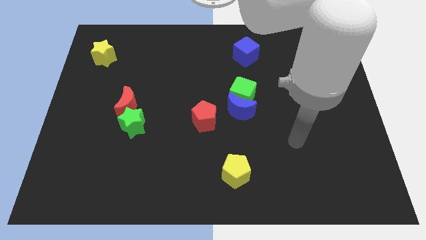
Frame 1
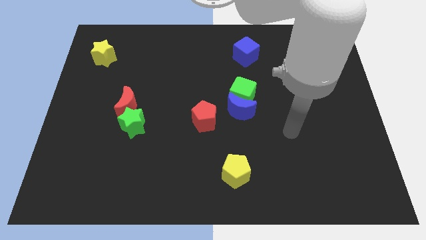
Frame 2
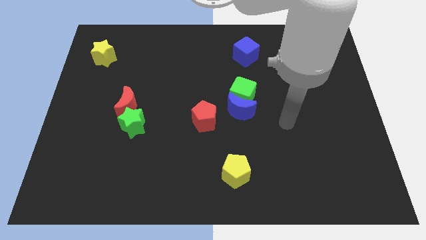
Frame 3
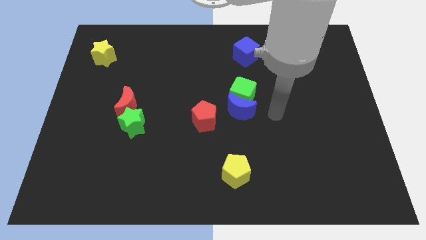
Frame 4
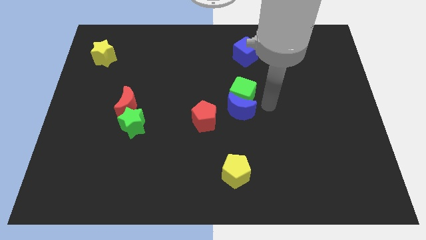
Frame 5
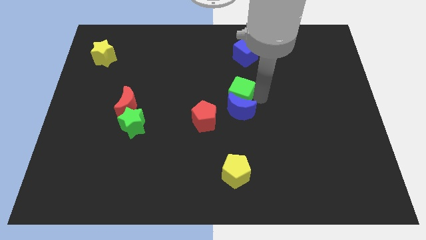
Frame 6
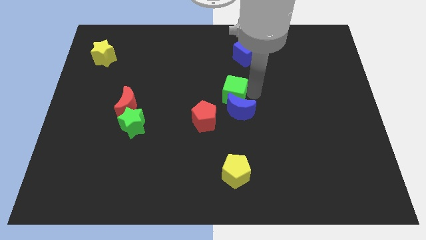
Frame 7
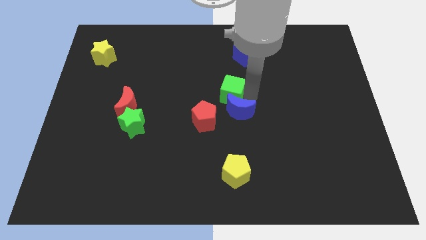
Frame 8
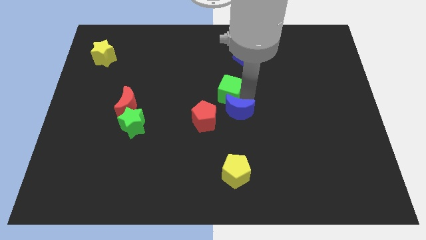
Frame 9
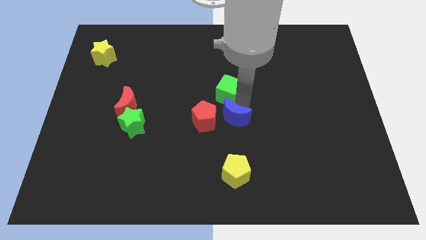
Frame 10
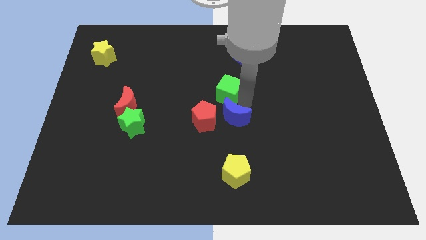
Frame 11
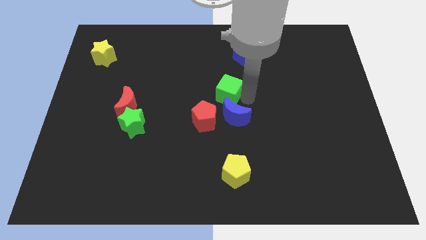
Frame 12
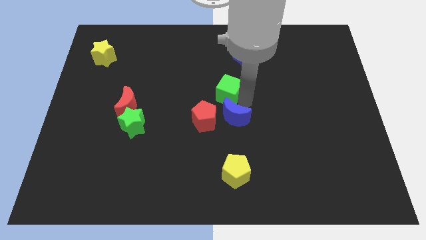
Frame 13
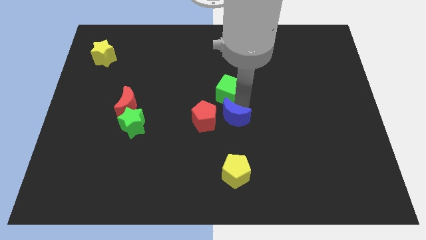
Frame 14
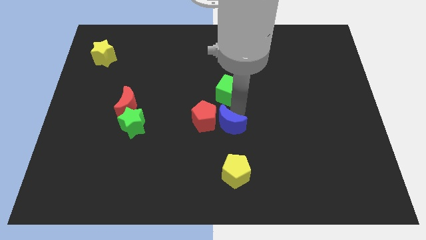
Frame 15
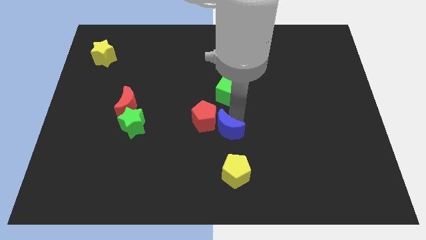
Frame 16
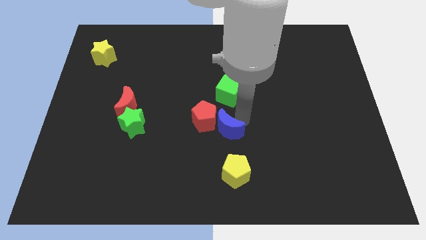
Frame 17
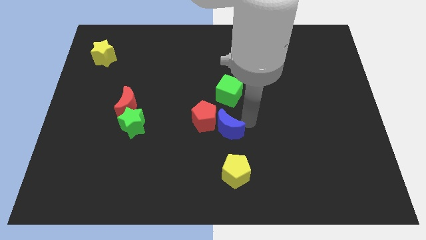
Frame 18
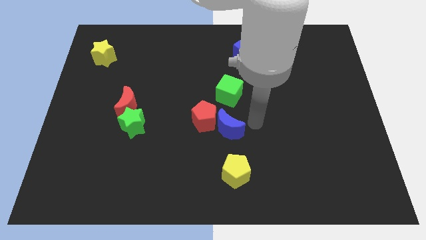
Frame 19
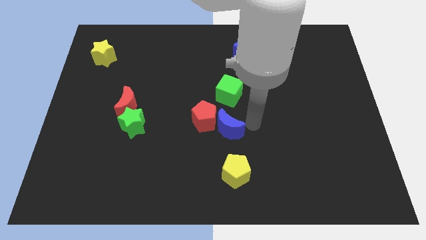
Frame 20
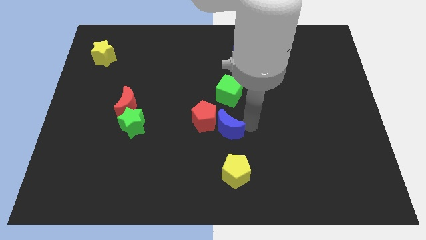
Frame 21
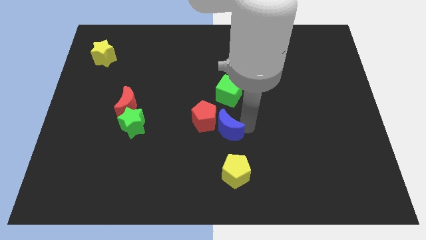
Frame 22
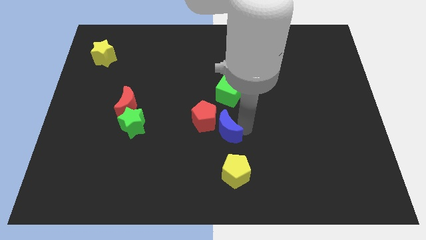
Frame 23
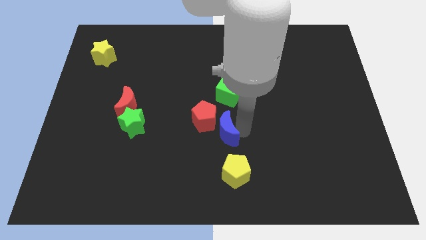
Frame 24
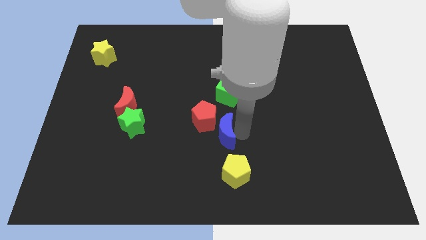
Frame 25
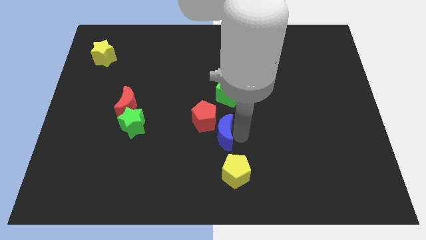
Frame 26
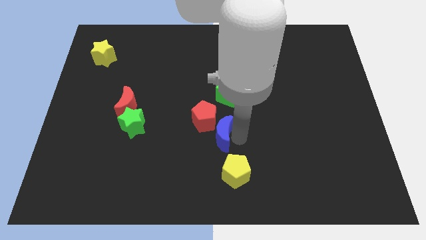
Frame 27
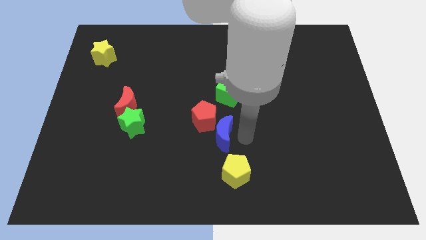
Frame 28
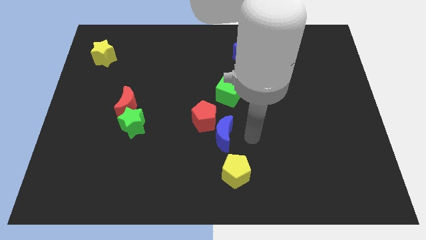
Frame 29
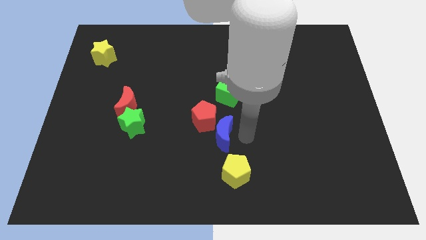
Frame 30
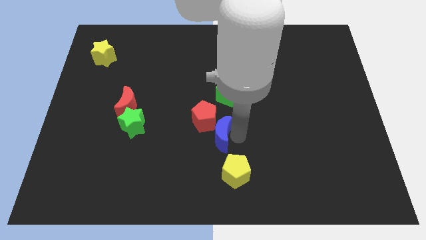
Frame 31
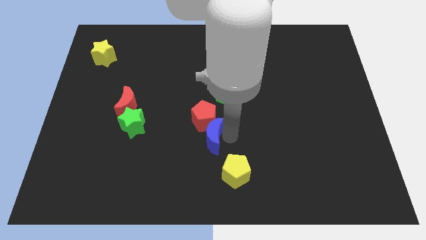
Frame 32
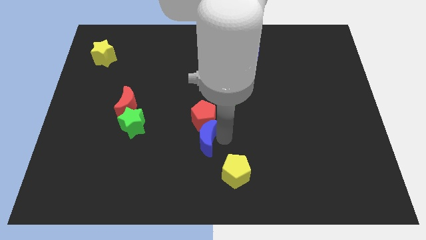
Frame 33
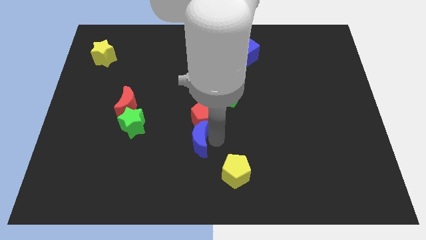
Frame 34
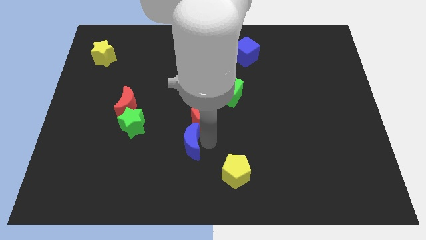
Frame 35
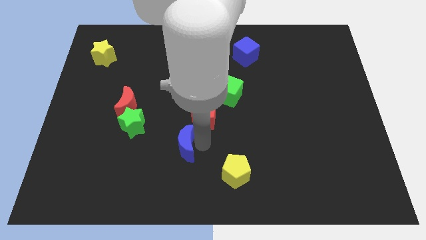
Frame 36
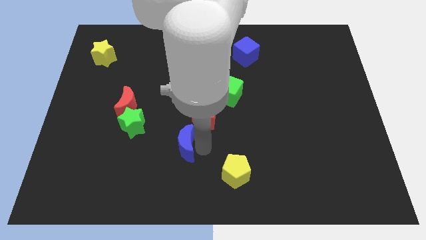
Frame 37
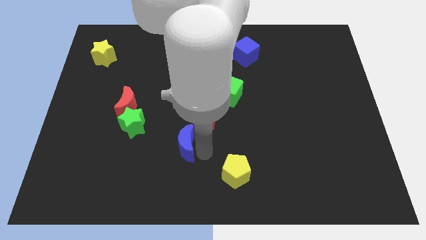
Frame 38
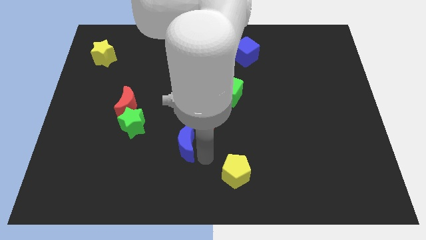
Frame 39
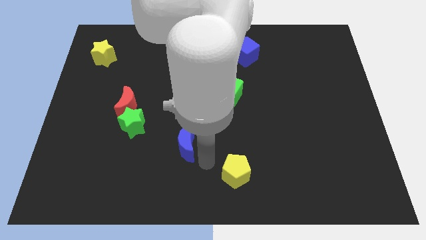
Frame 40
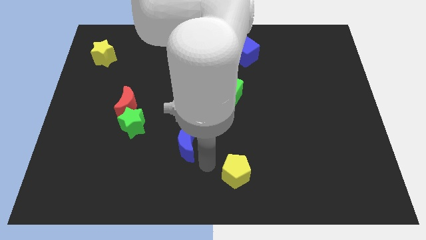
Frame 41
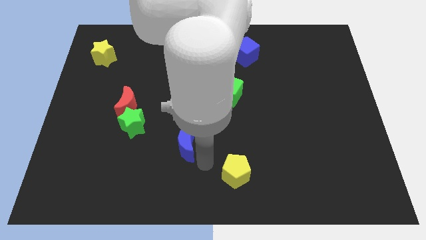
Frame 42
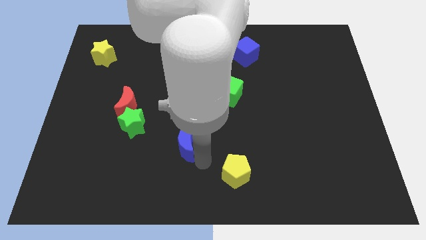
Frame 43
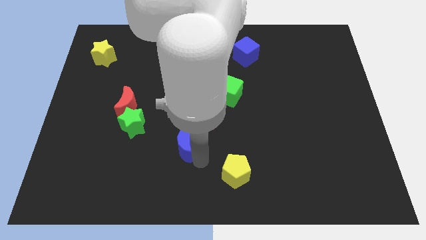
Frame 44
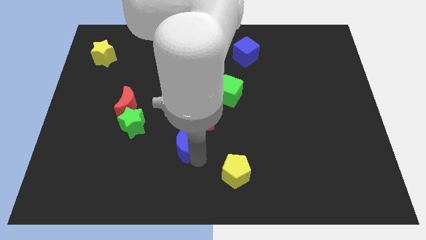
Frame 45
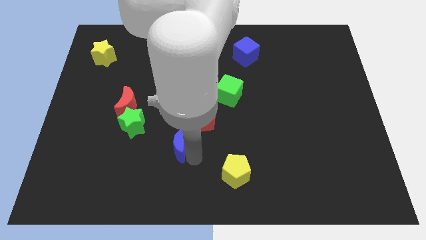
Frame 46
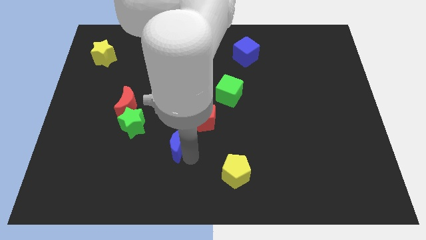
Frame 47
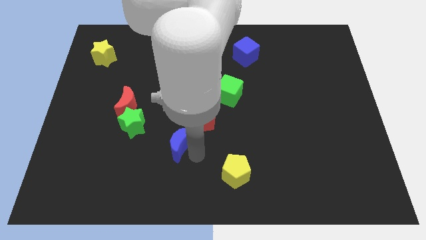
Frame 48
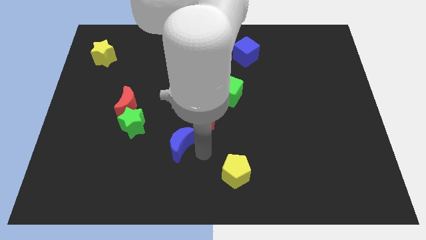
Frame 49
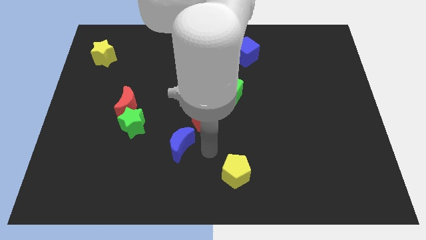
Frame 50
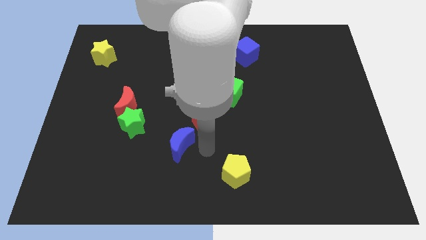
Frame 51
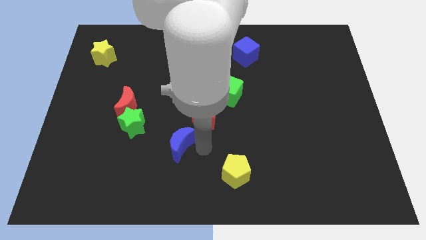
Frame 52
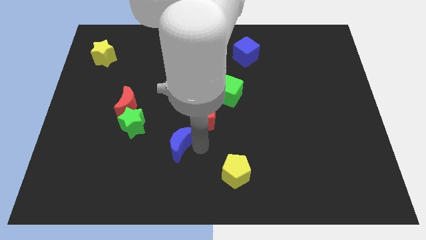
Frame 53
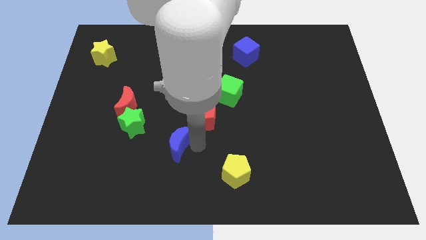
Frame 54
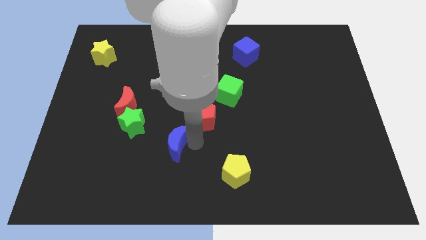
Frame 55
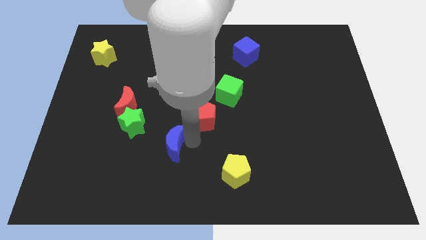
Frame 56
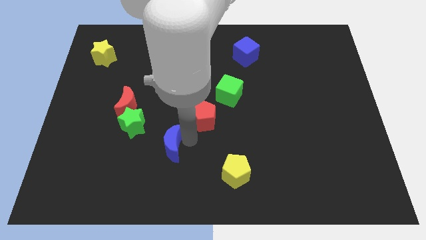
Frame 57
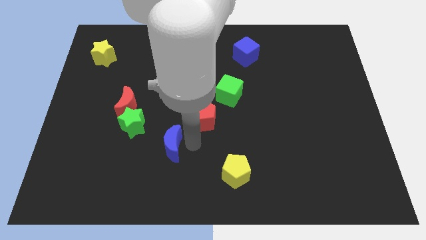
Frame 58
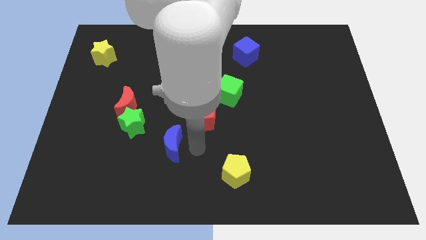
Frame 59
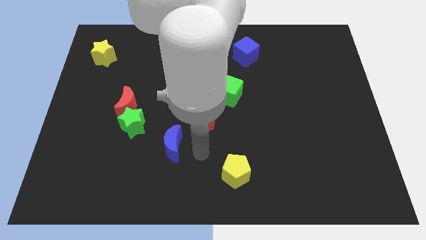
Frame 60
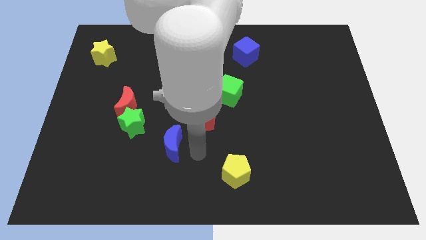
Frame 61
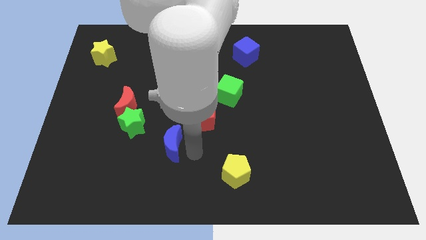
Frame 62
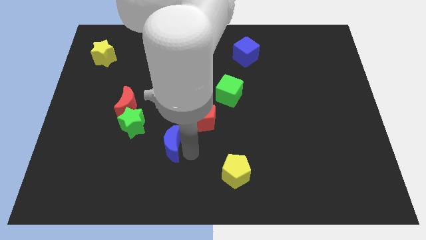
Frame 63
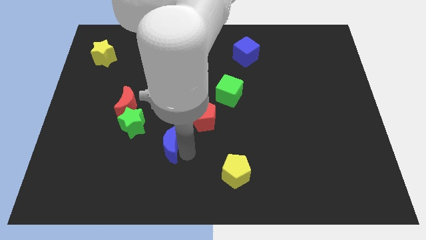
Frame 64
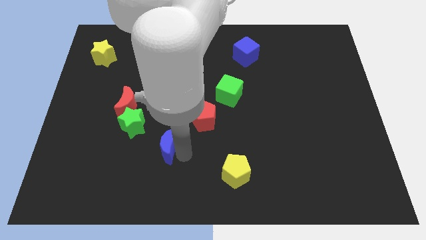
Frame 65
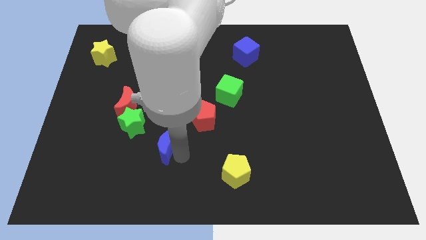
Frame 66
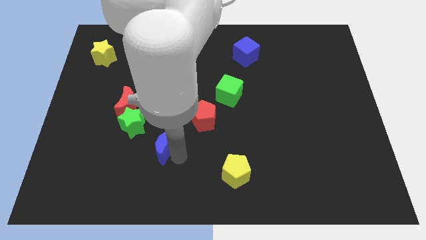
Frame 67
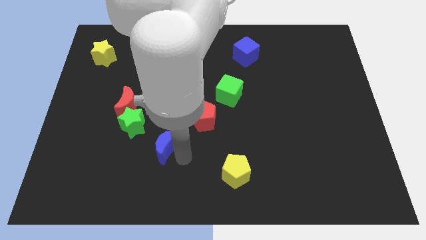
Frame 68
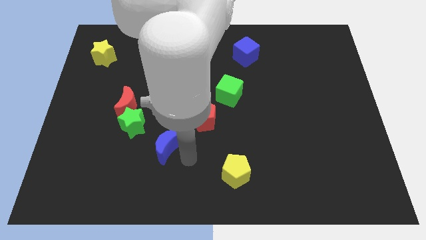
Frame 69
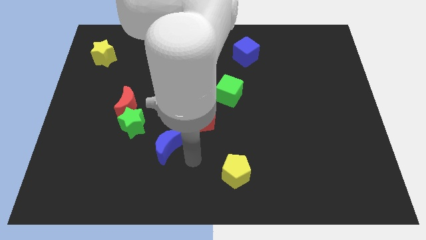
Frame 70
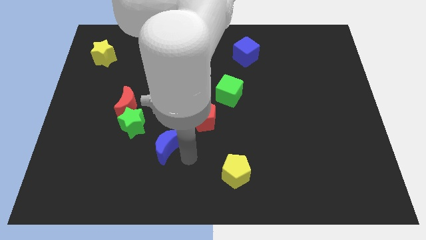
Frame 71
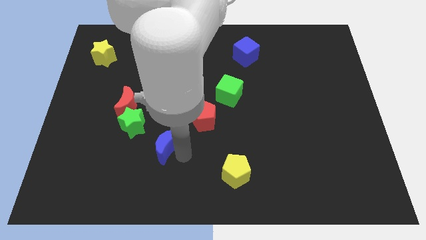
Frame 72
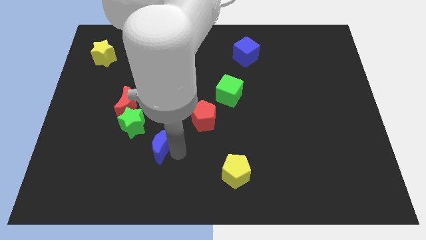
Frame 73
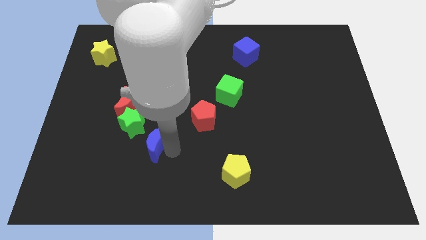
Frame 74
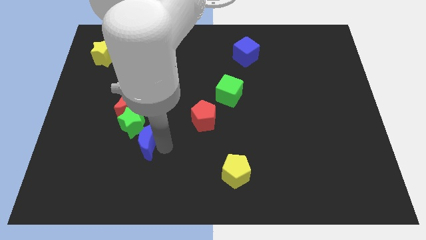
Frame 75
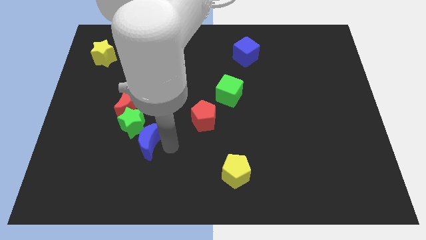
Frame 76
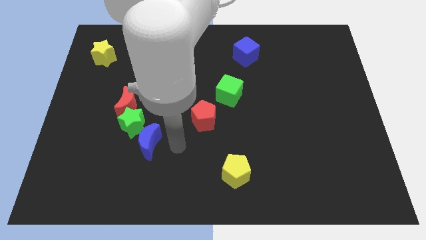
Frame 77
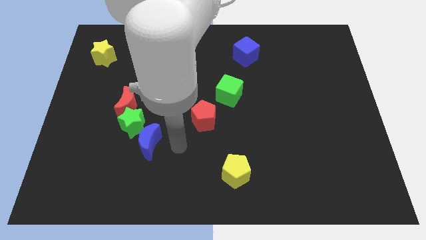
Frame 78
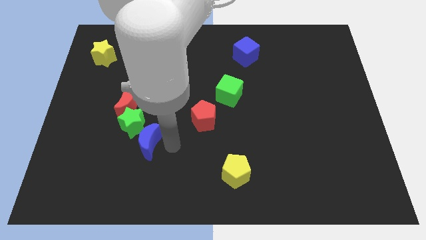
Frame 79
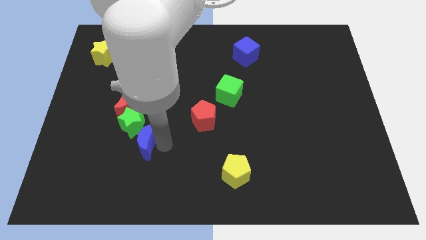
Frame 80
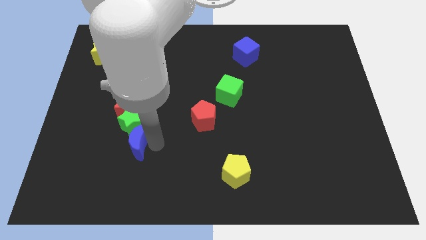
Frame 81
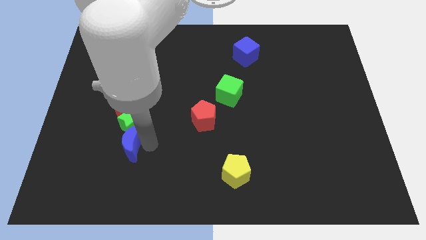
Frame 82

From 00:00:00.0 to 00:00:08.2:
move the blue moon left
